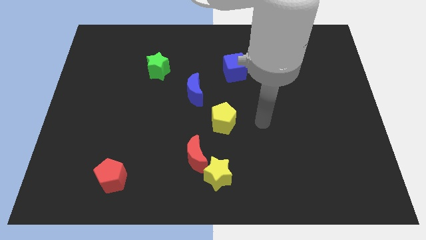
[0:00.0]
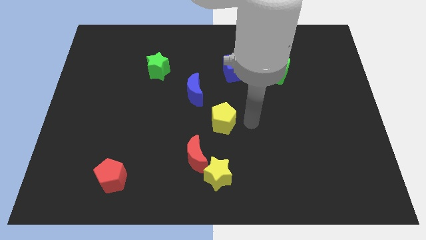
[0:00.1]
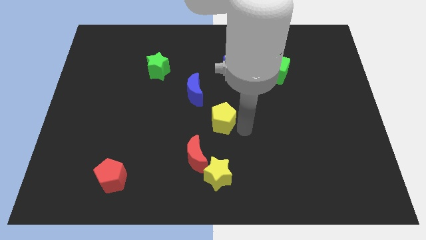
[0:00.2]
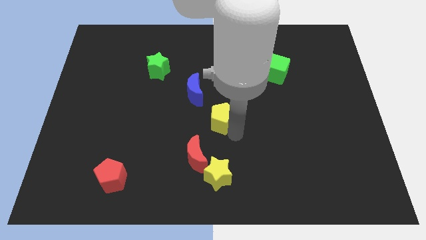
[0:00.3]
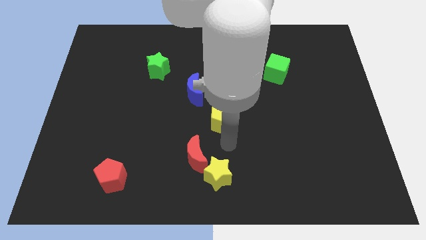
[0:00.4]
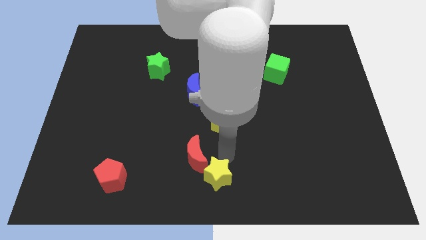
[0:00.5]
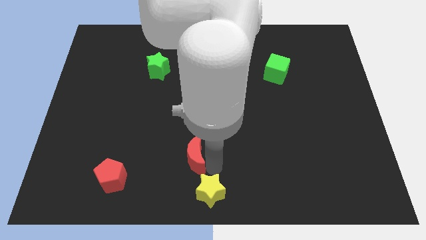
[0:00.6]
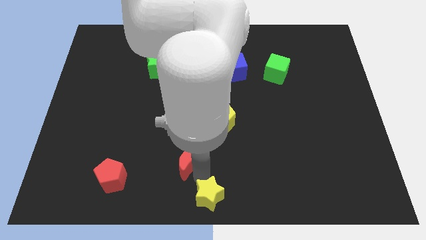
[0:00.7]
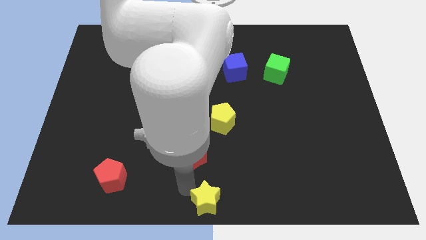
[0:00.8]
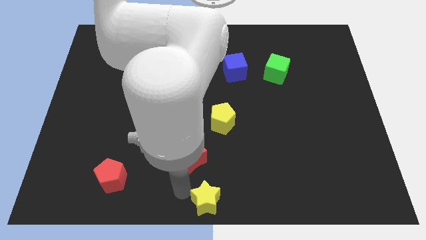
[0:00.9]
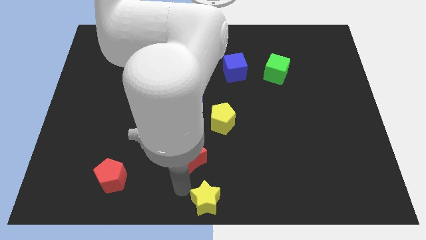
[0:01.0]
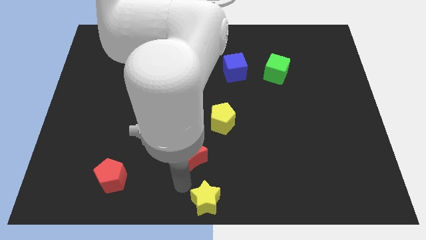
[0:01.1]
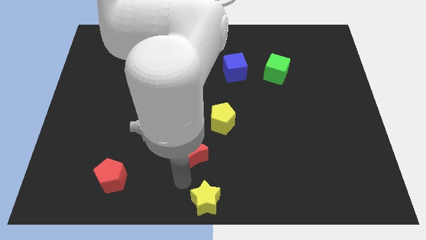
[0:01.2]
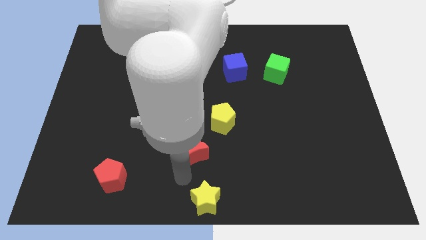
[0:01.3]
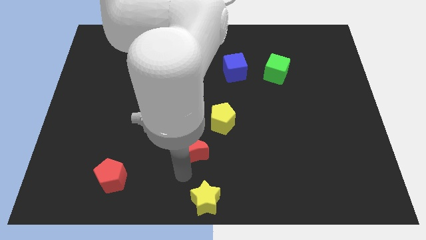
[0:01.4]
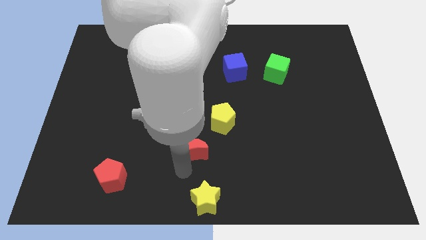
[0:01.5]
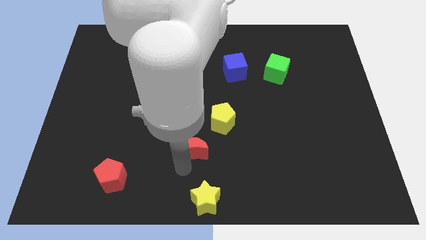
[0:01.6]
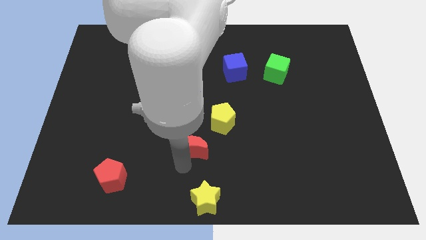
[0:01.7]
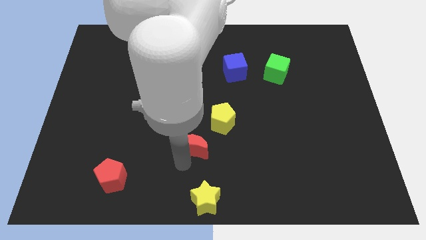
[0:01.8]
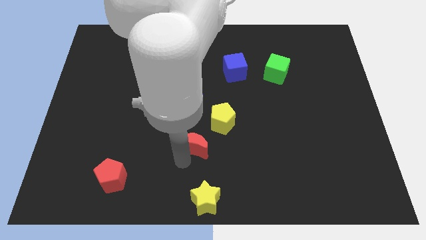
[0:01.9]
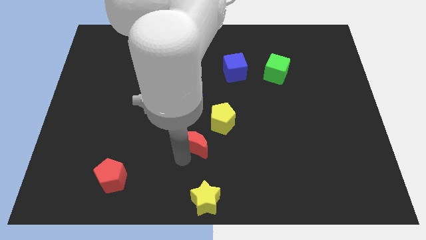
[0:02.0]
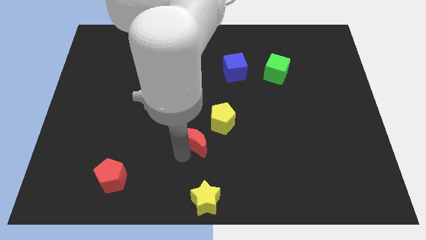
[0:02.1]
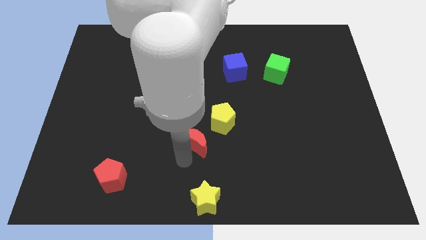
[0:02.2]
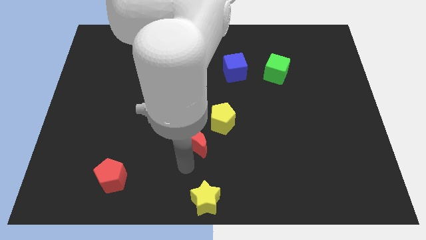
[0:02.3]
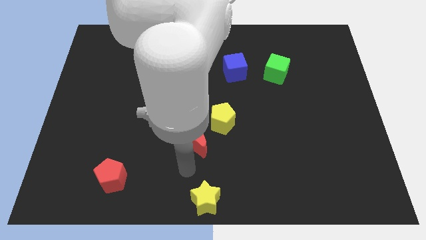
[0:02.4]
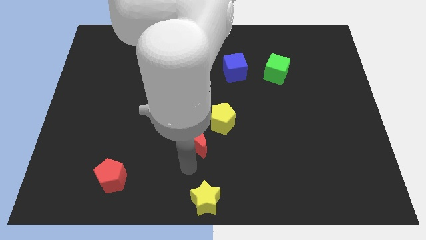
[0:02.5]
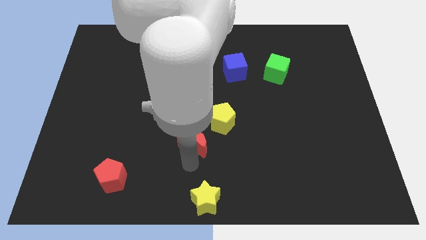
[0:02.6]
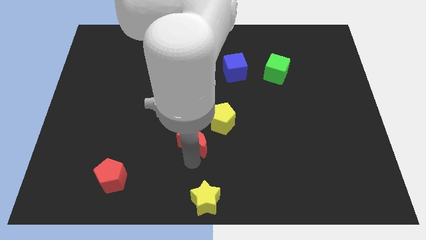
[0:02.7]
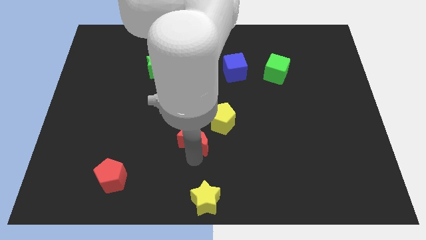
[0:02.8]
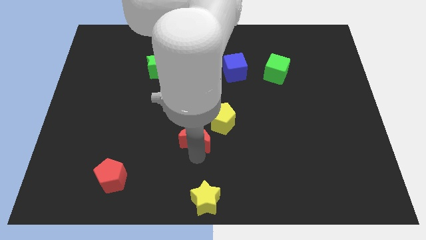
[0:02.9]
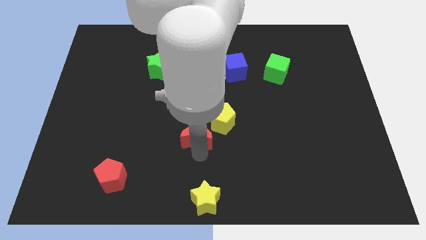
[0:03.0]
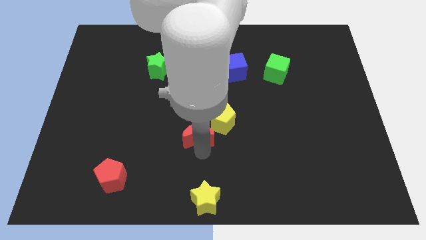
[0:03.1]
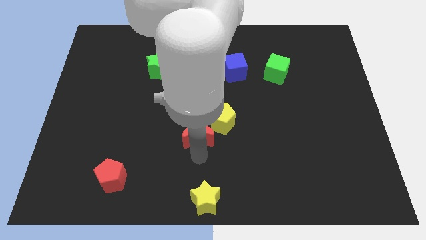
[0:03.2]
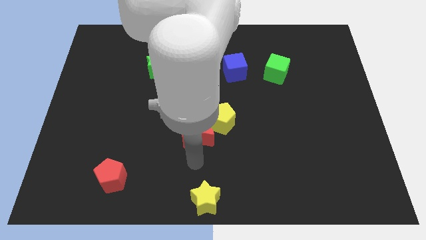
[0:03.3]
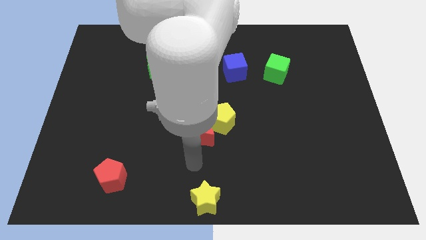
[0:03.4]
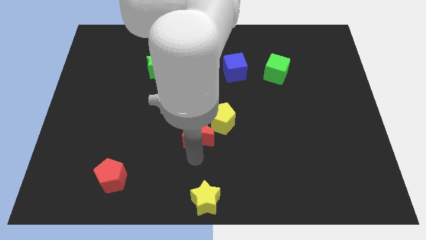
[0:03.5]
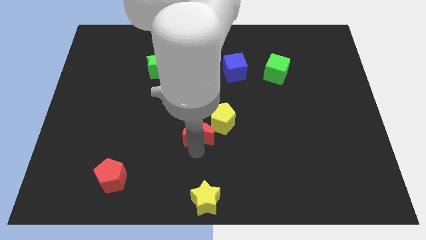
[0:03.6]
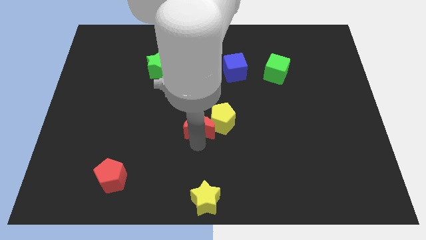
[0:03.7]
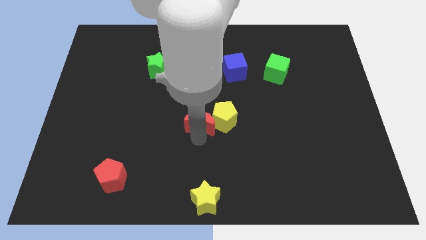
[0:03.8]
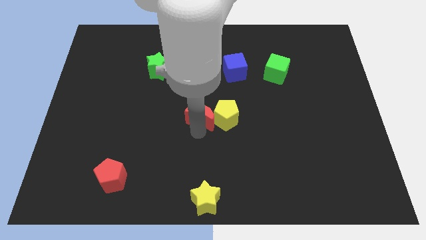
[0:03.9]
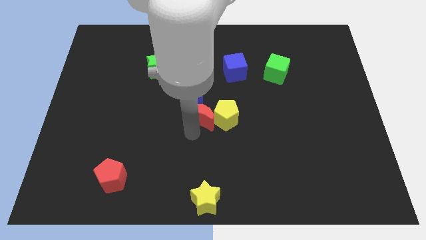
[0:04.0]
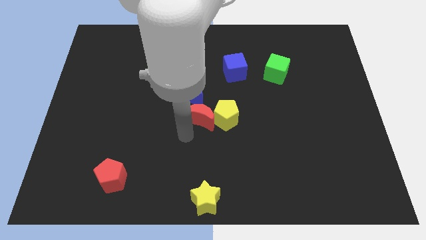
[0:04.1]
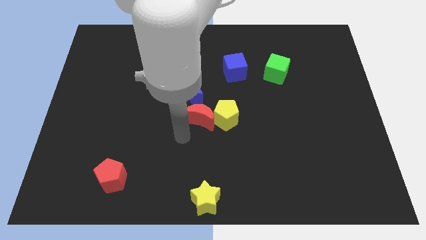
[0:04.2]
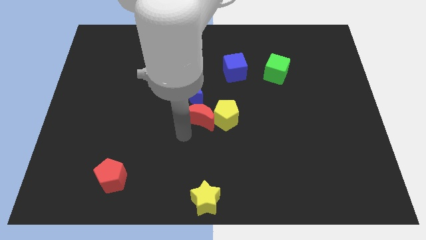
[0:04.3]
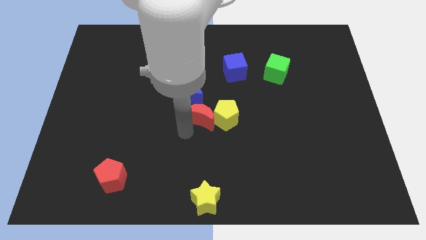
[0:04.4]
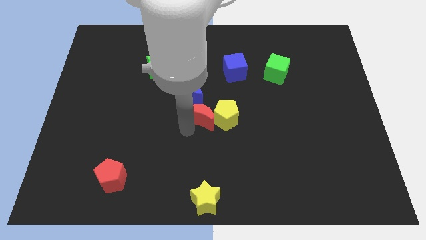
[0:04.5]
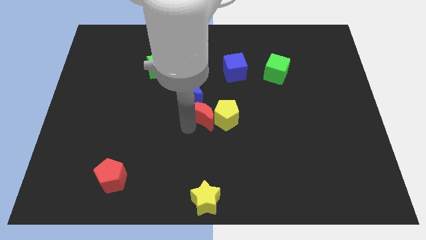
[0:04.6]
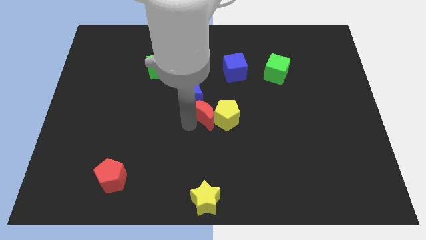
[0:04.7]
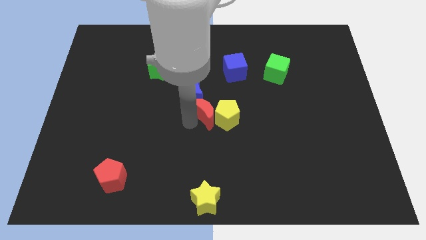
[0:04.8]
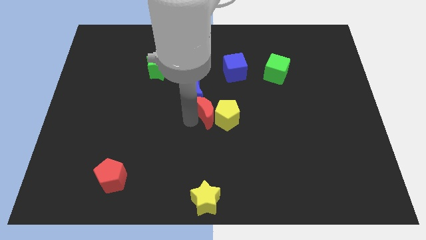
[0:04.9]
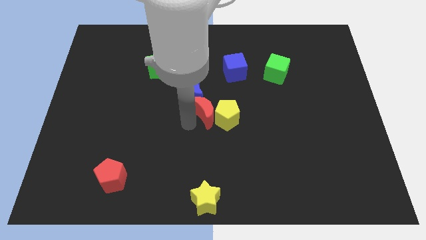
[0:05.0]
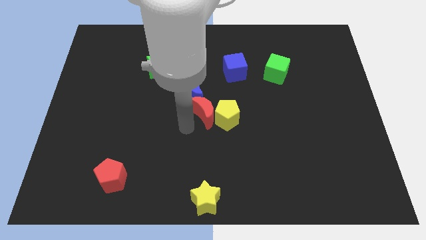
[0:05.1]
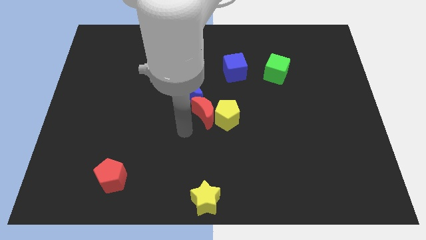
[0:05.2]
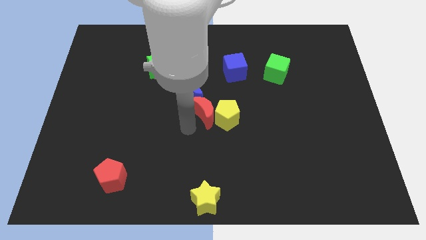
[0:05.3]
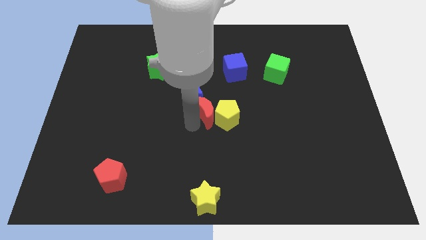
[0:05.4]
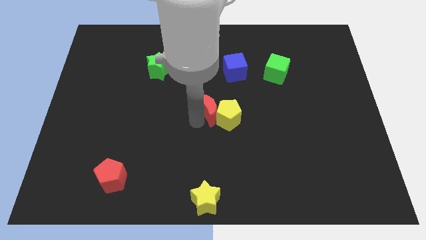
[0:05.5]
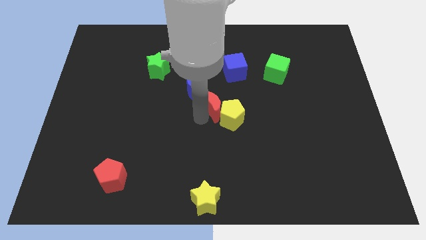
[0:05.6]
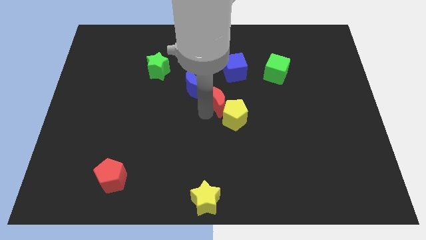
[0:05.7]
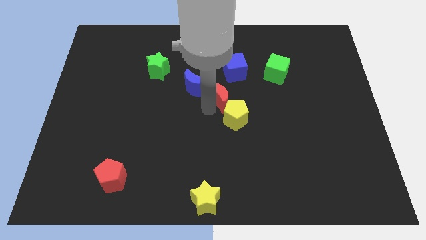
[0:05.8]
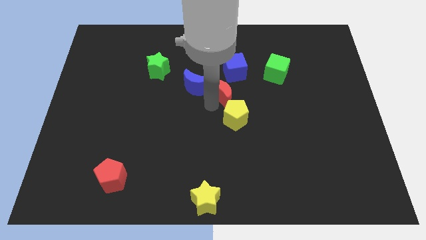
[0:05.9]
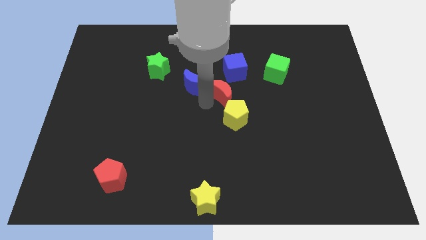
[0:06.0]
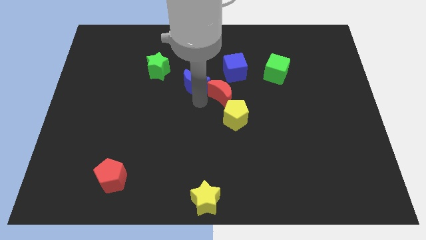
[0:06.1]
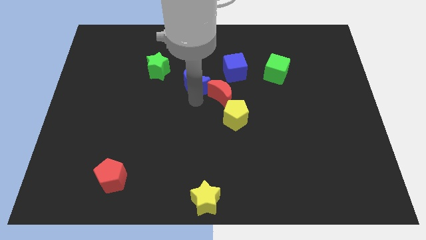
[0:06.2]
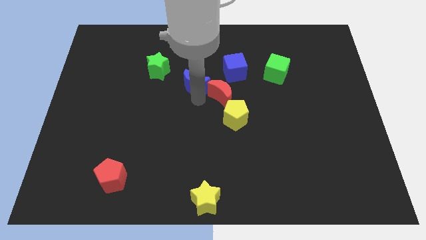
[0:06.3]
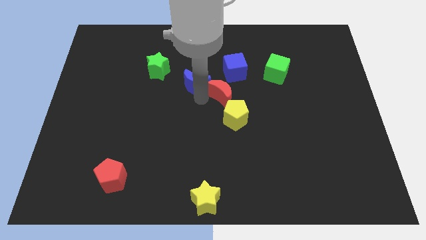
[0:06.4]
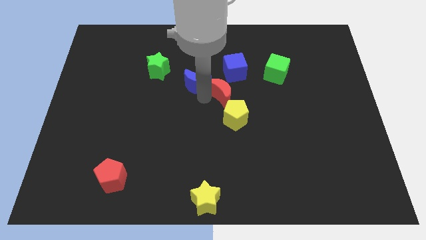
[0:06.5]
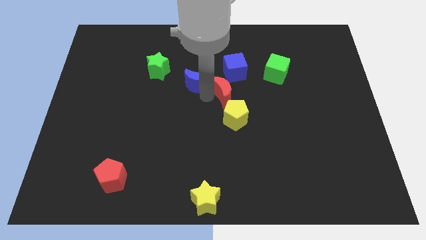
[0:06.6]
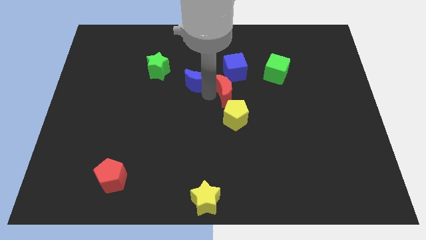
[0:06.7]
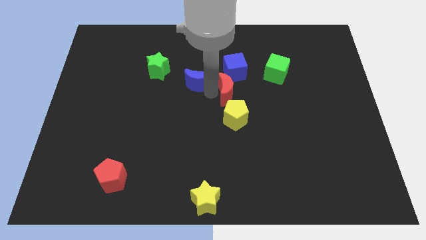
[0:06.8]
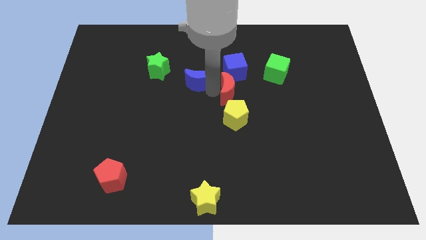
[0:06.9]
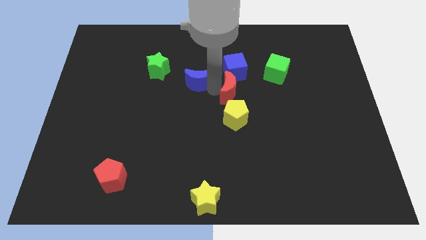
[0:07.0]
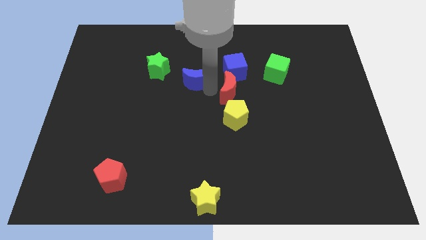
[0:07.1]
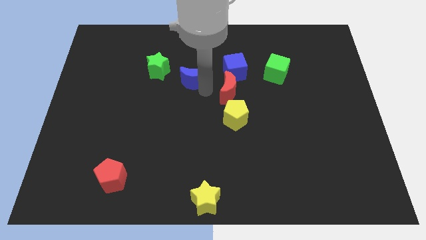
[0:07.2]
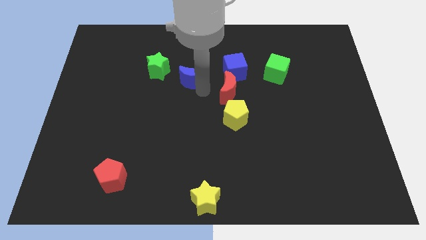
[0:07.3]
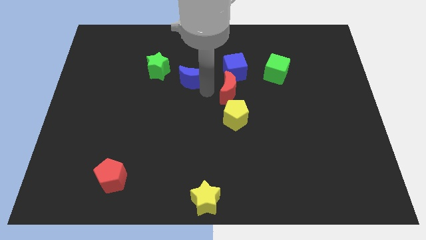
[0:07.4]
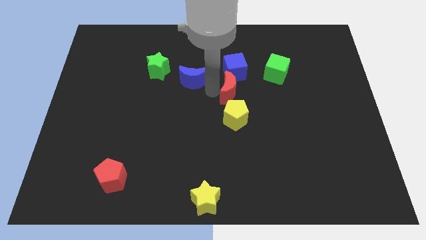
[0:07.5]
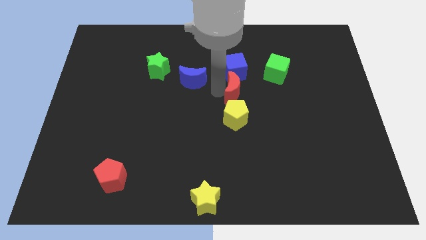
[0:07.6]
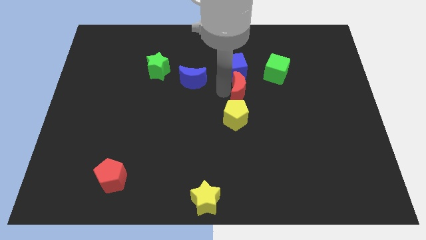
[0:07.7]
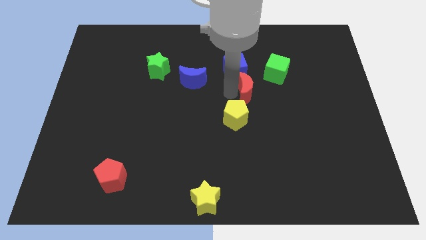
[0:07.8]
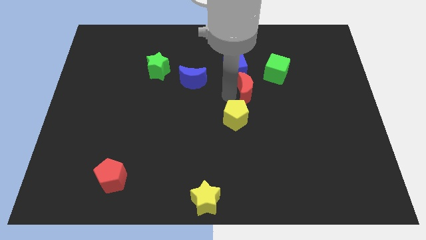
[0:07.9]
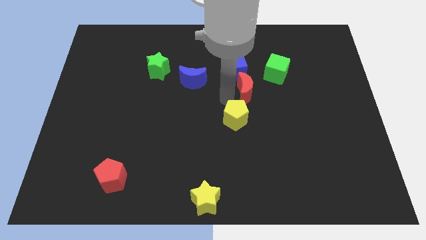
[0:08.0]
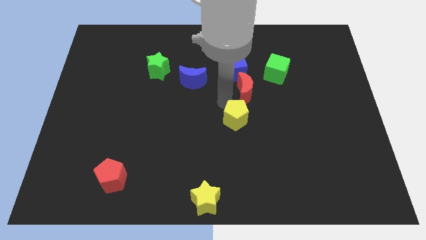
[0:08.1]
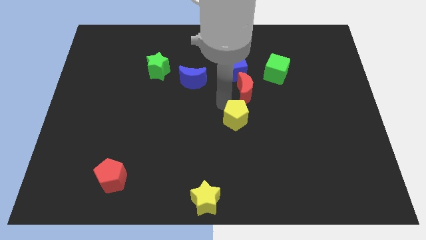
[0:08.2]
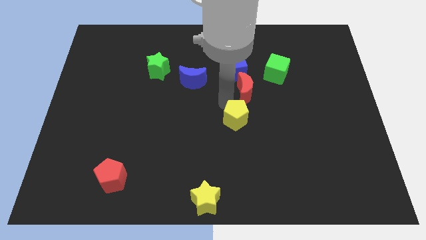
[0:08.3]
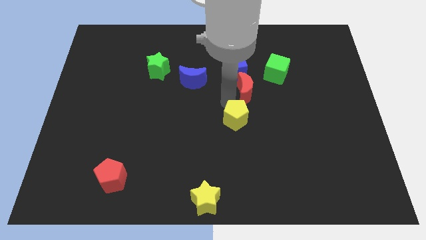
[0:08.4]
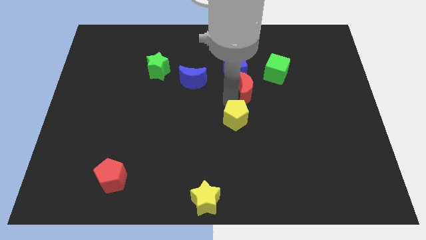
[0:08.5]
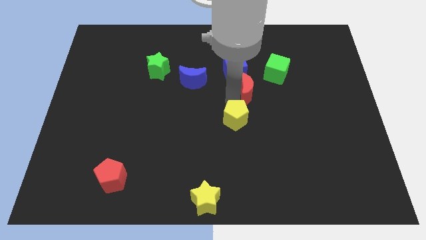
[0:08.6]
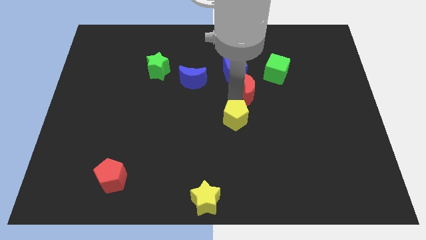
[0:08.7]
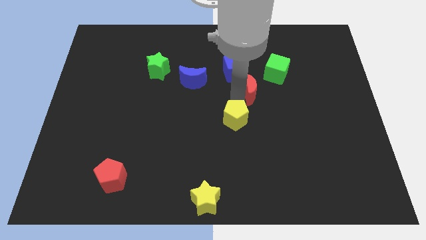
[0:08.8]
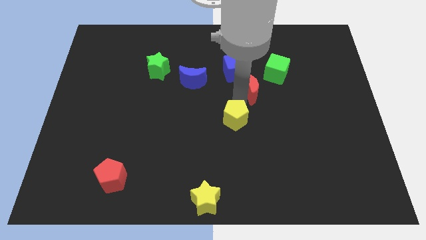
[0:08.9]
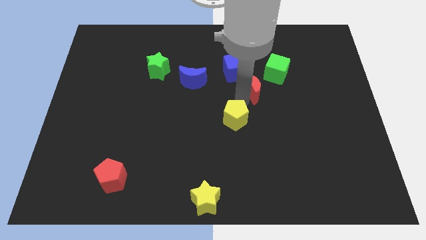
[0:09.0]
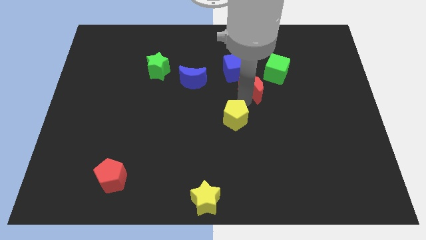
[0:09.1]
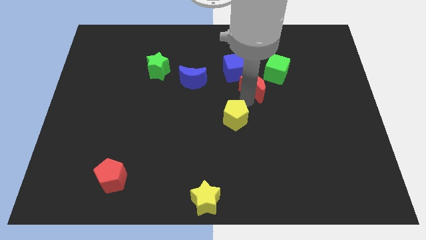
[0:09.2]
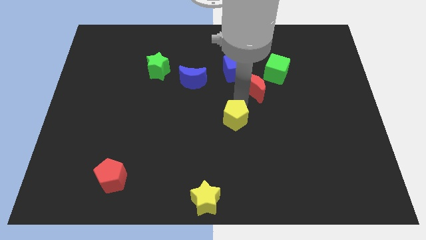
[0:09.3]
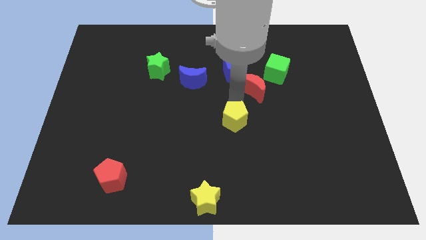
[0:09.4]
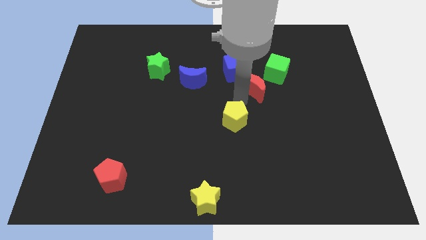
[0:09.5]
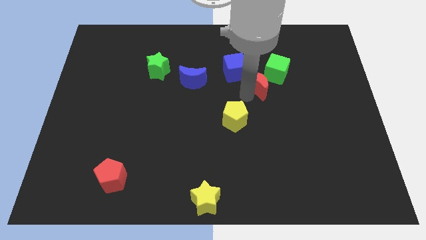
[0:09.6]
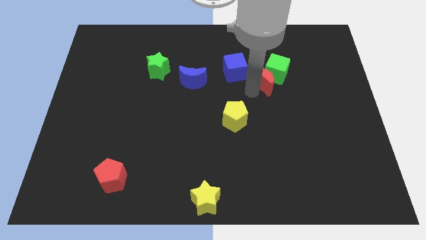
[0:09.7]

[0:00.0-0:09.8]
slide the red moon close to the green cube
